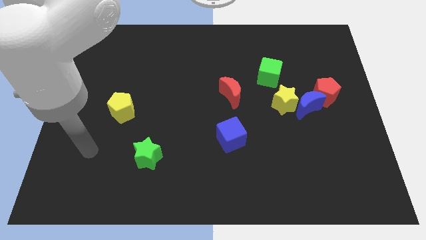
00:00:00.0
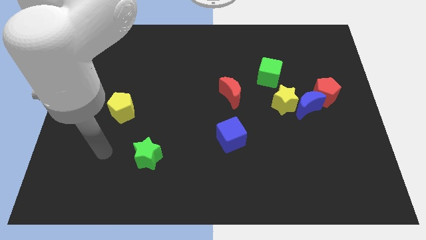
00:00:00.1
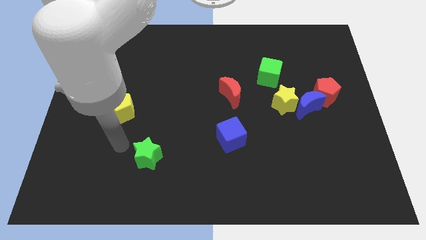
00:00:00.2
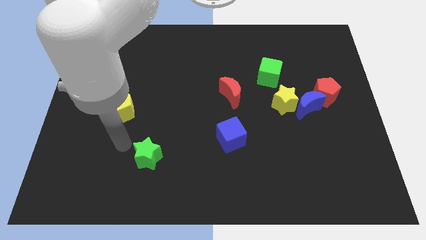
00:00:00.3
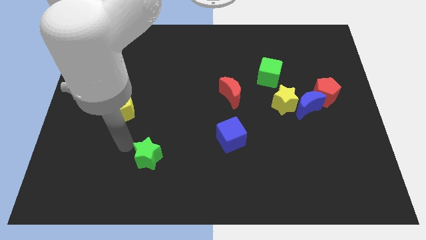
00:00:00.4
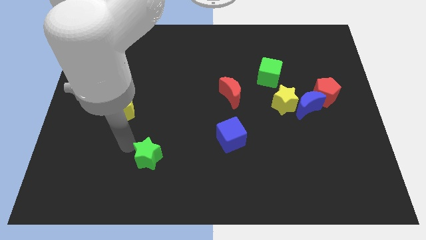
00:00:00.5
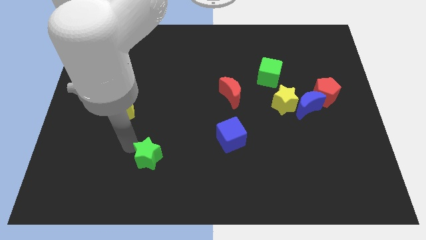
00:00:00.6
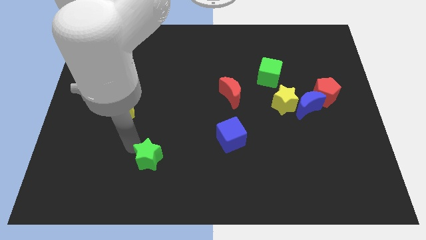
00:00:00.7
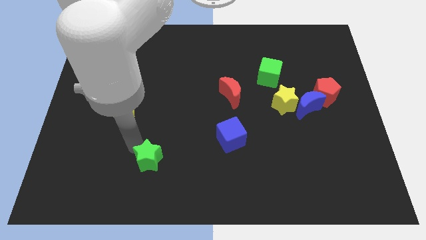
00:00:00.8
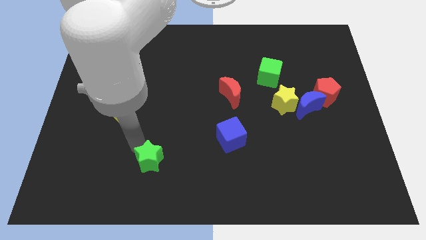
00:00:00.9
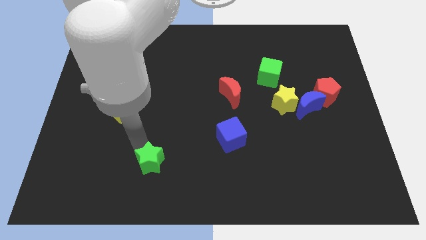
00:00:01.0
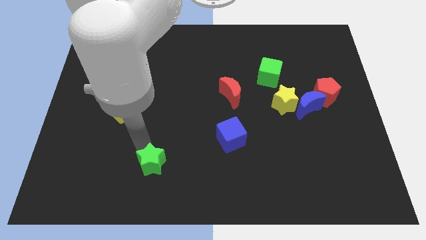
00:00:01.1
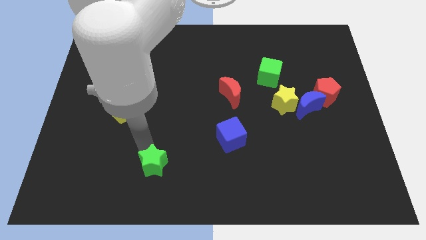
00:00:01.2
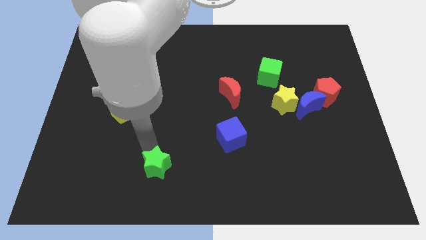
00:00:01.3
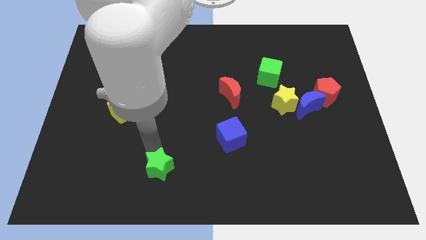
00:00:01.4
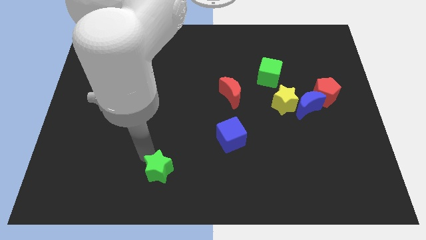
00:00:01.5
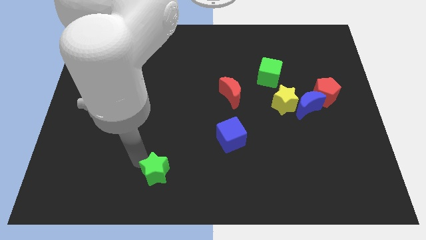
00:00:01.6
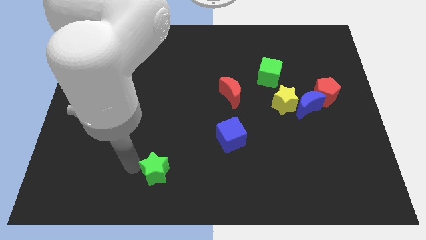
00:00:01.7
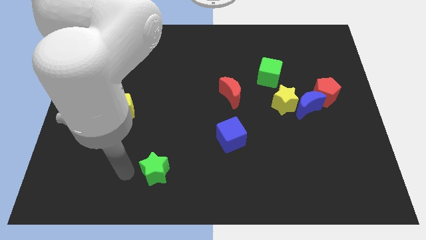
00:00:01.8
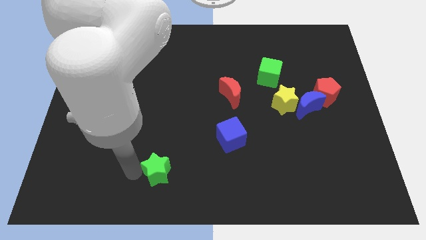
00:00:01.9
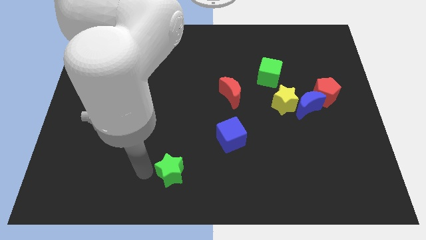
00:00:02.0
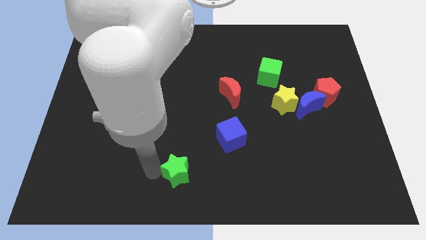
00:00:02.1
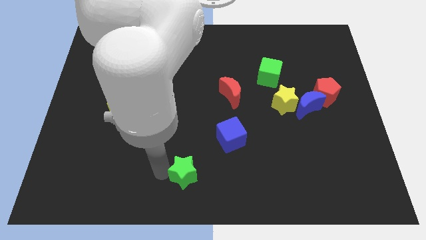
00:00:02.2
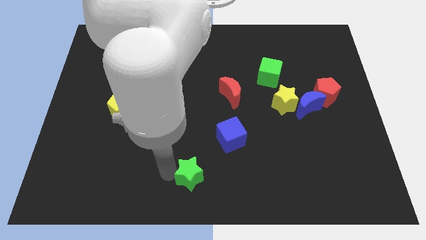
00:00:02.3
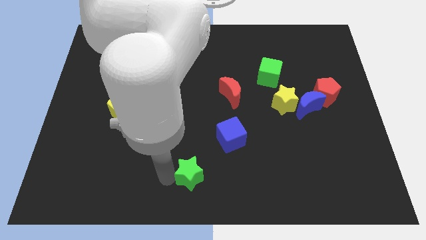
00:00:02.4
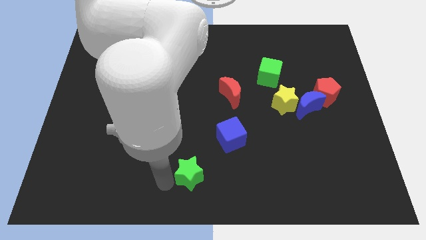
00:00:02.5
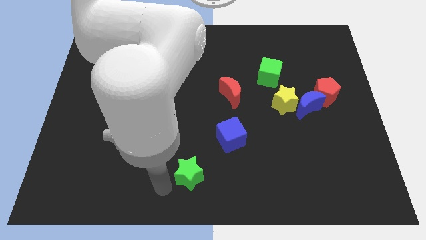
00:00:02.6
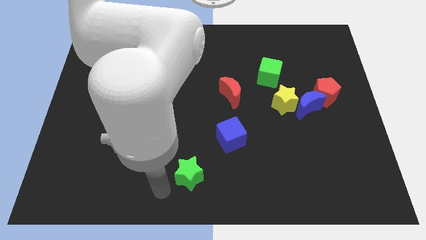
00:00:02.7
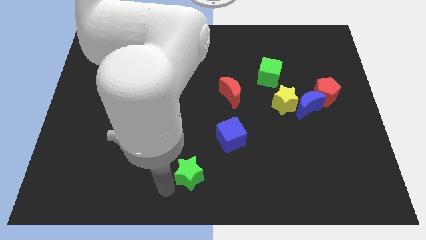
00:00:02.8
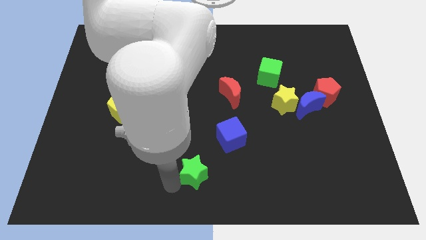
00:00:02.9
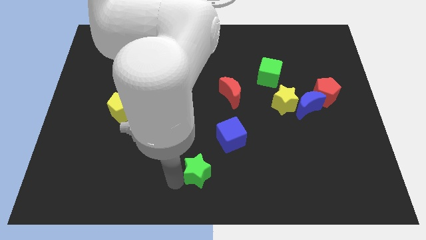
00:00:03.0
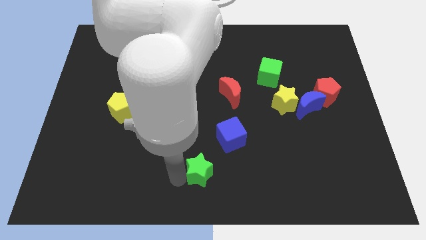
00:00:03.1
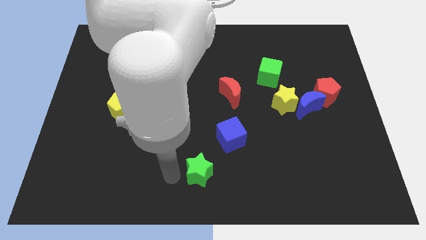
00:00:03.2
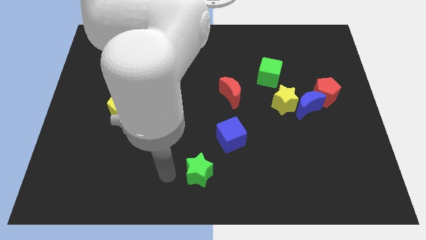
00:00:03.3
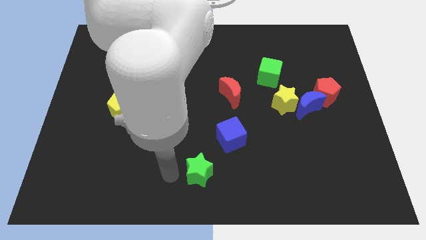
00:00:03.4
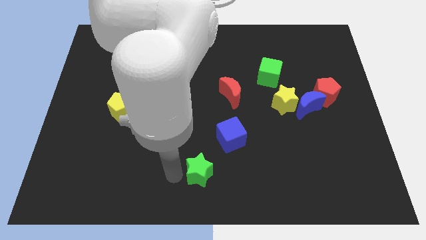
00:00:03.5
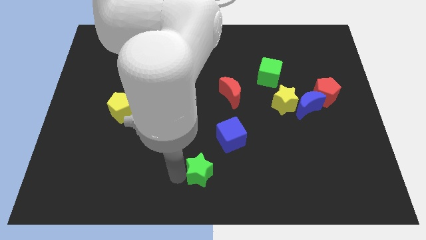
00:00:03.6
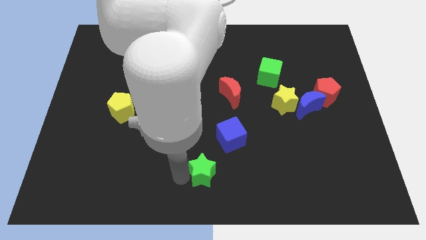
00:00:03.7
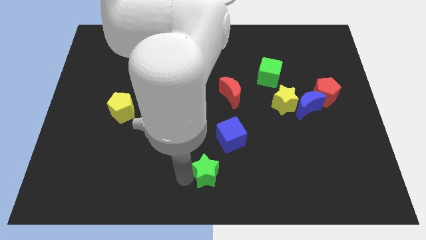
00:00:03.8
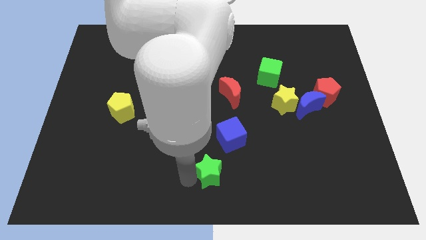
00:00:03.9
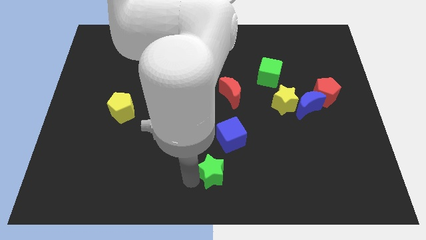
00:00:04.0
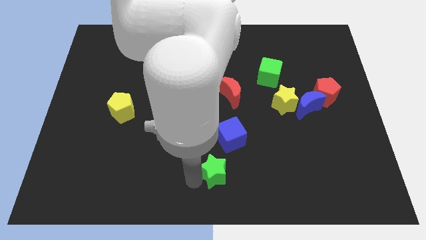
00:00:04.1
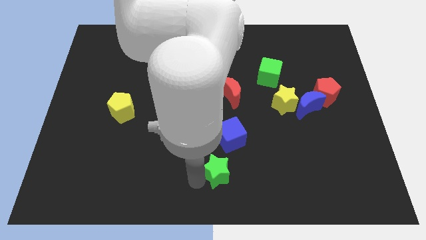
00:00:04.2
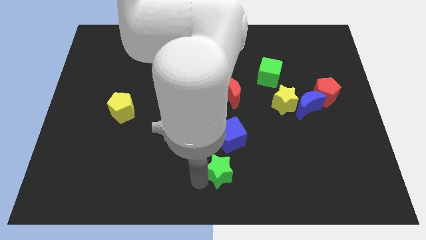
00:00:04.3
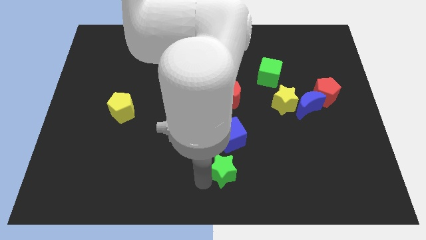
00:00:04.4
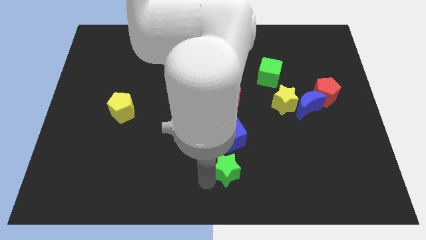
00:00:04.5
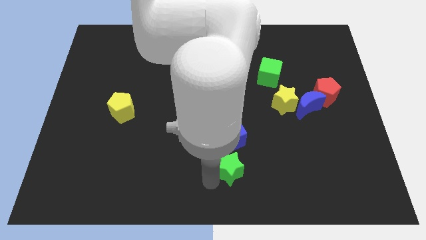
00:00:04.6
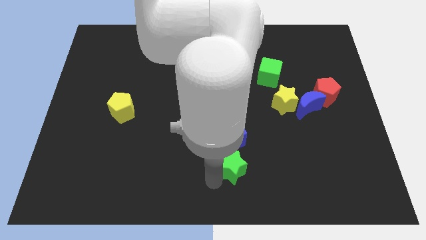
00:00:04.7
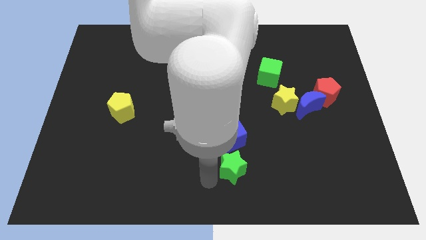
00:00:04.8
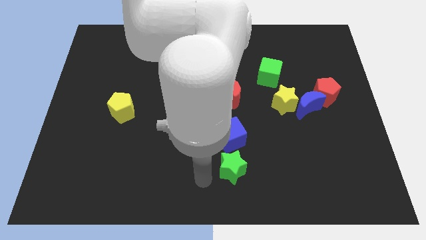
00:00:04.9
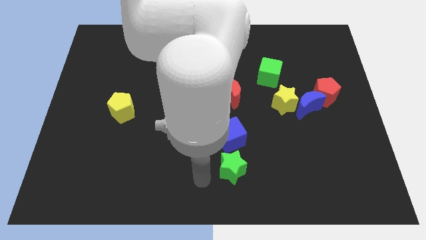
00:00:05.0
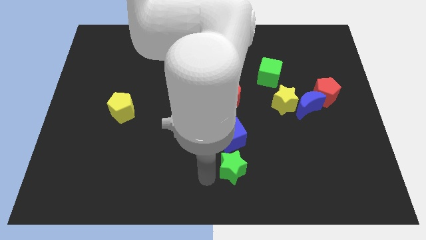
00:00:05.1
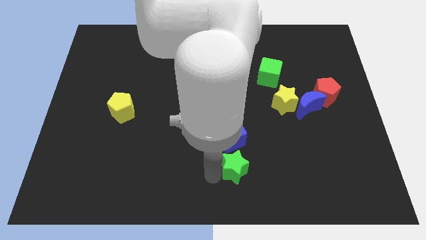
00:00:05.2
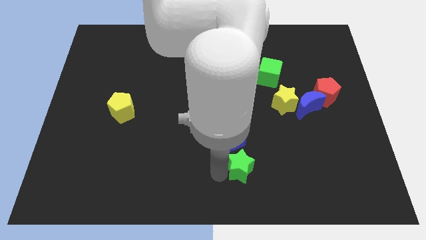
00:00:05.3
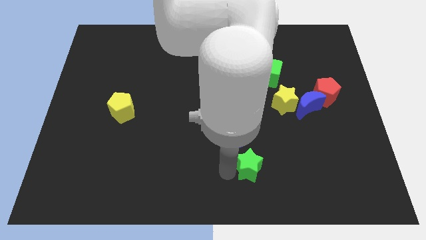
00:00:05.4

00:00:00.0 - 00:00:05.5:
push the green star to the right

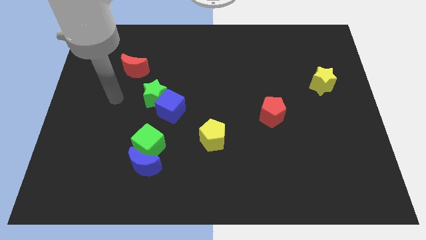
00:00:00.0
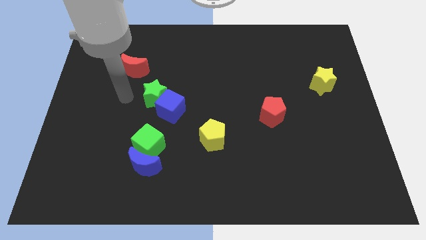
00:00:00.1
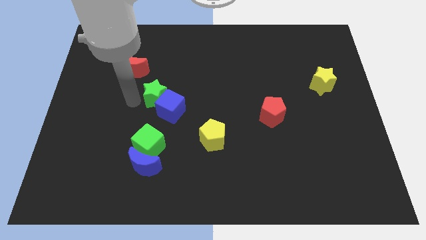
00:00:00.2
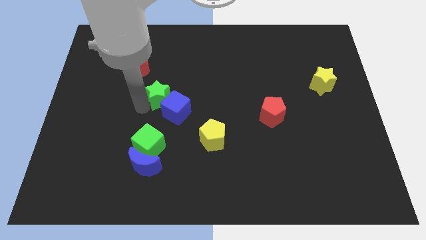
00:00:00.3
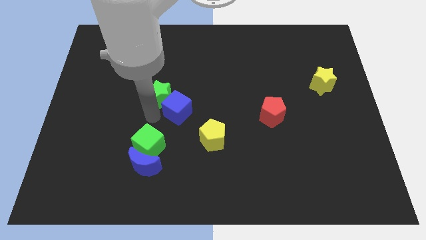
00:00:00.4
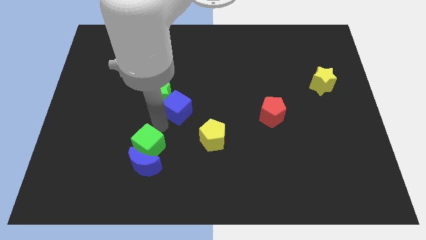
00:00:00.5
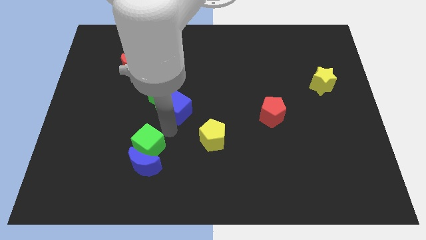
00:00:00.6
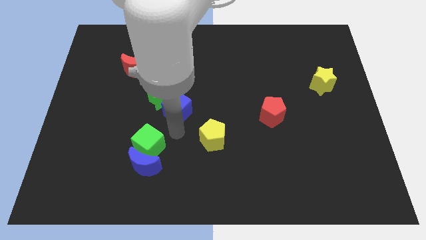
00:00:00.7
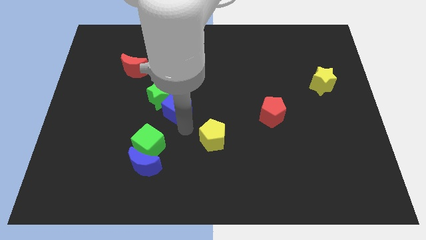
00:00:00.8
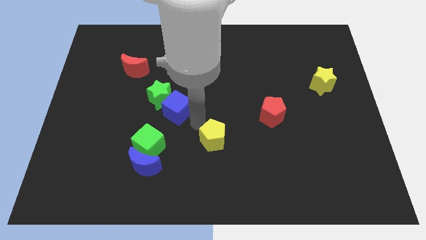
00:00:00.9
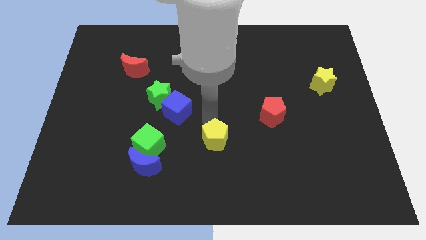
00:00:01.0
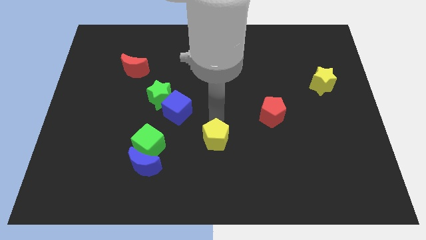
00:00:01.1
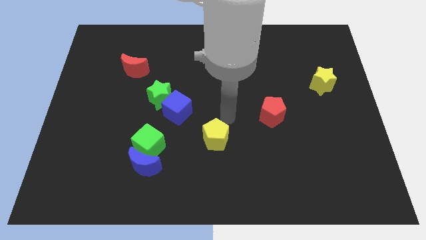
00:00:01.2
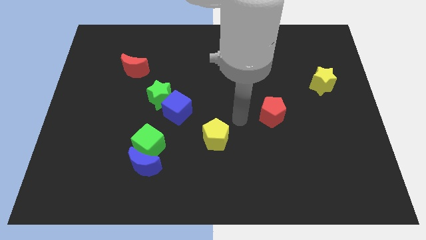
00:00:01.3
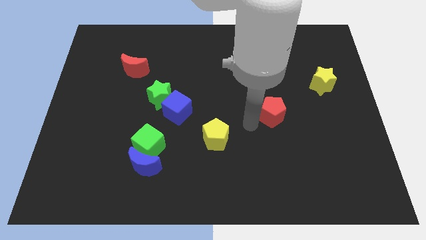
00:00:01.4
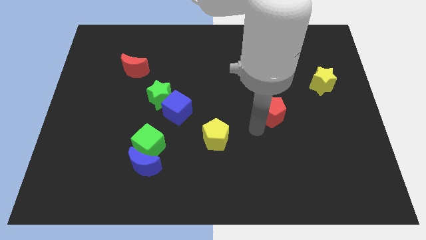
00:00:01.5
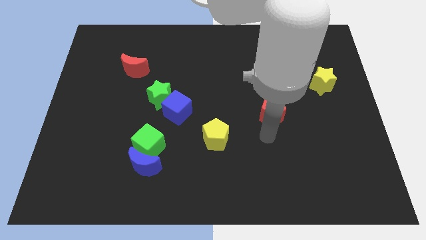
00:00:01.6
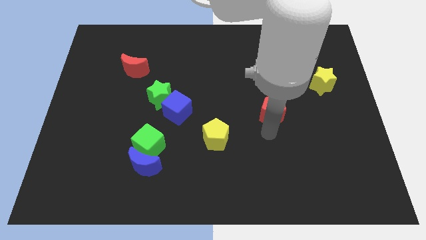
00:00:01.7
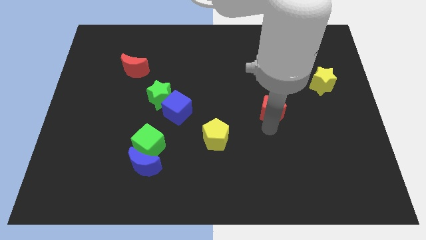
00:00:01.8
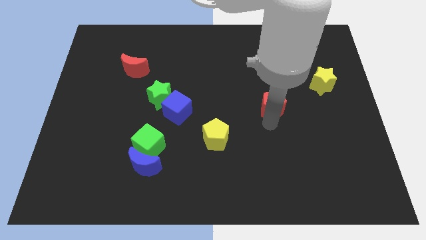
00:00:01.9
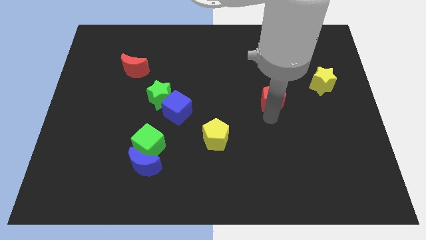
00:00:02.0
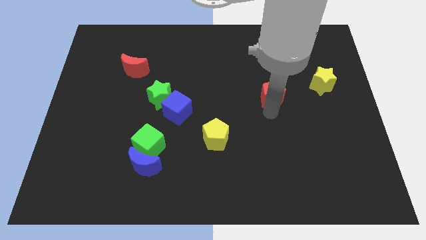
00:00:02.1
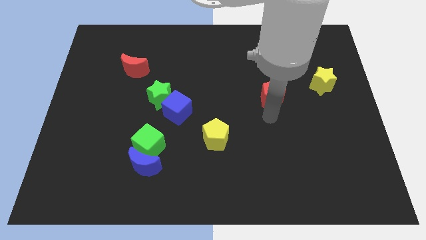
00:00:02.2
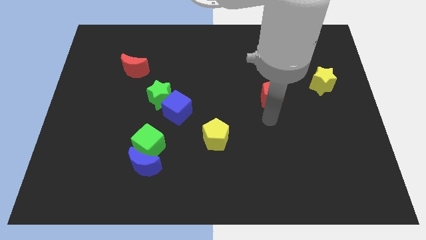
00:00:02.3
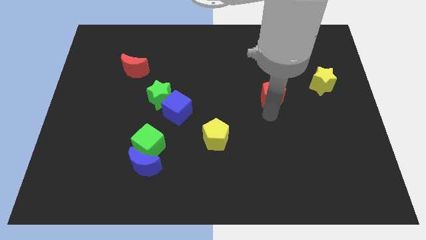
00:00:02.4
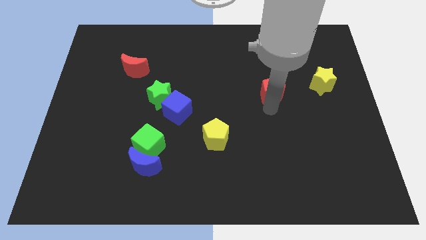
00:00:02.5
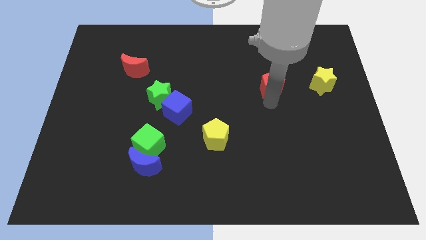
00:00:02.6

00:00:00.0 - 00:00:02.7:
push the red pentagon a bit up
